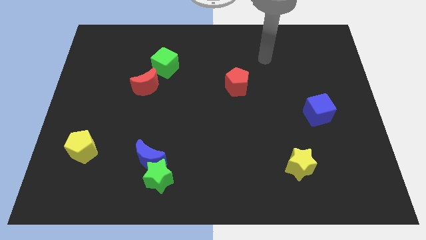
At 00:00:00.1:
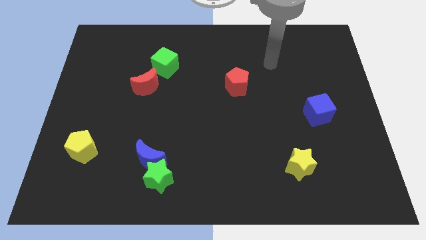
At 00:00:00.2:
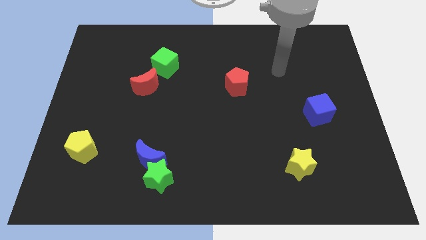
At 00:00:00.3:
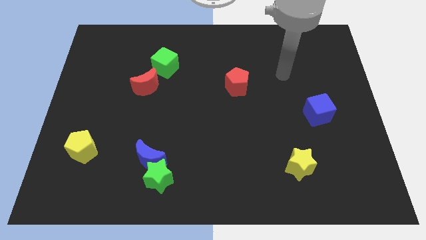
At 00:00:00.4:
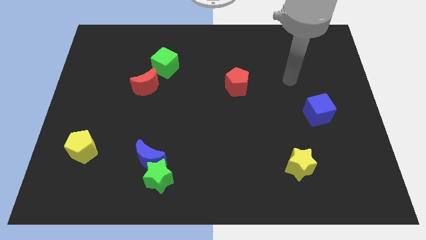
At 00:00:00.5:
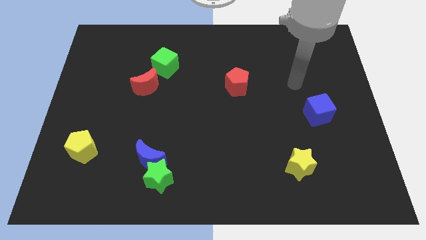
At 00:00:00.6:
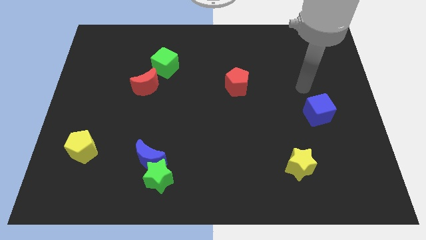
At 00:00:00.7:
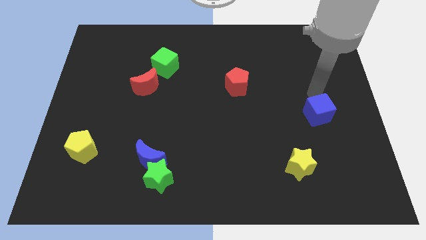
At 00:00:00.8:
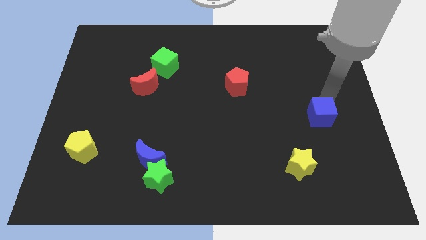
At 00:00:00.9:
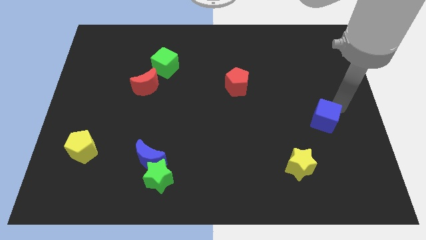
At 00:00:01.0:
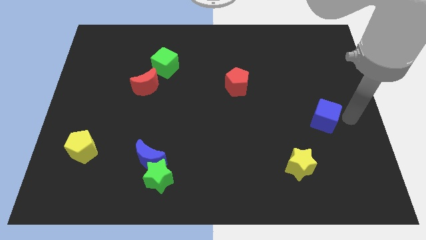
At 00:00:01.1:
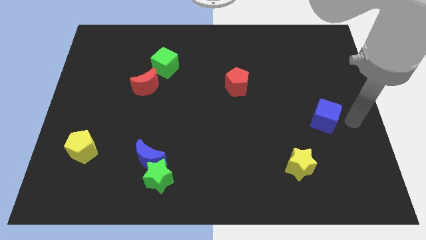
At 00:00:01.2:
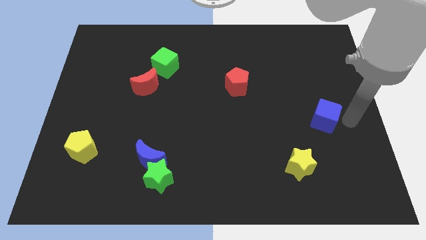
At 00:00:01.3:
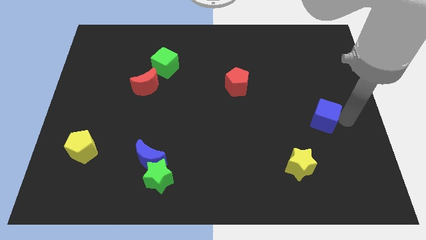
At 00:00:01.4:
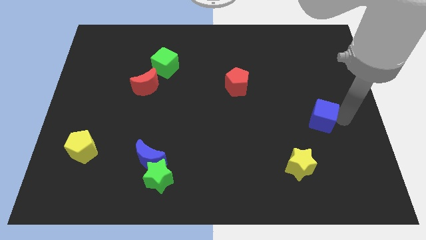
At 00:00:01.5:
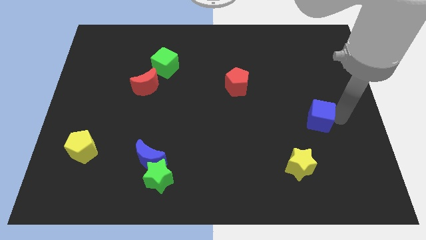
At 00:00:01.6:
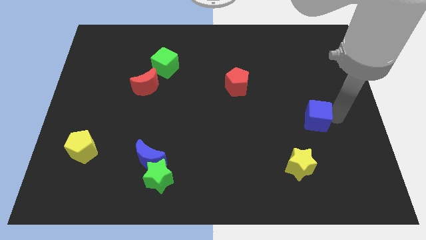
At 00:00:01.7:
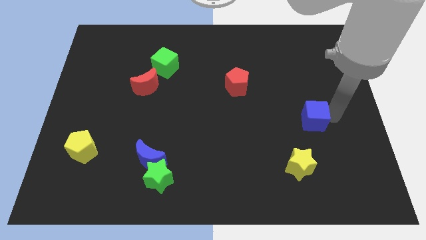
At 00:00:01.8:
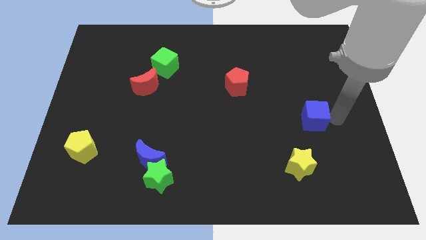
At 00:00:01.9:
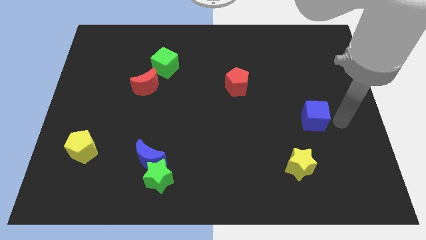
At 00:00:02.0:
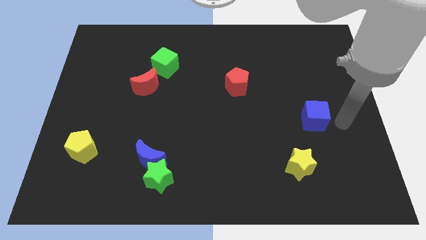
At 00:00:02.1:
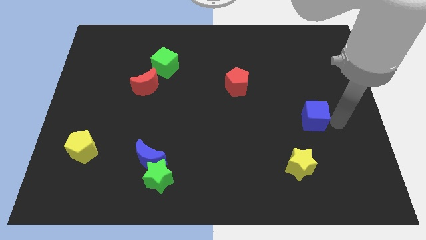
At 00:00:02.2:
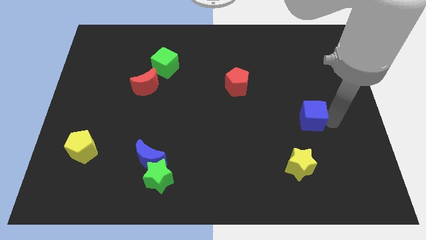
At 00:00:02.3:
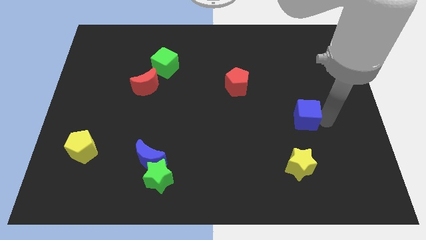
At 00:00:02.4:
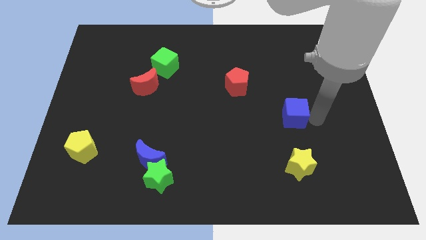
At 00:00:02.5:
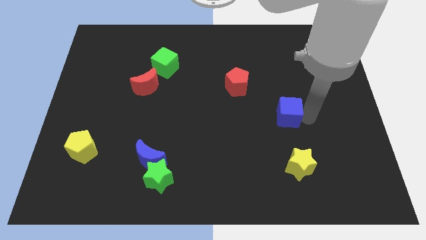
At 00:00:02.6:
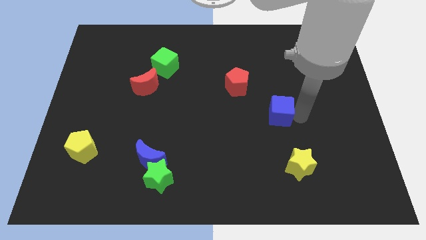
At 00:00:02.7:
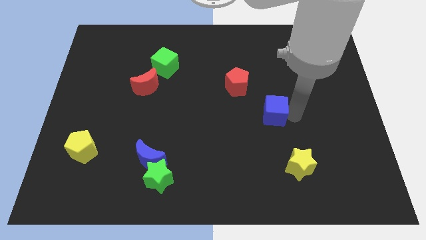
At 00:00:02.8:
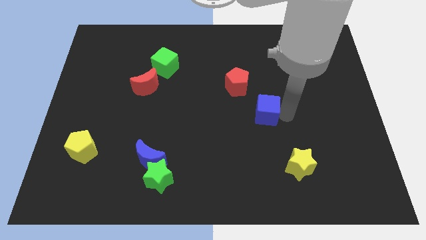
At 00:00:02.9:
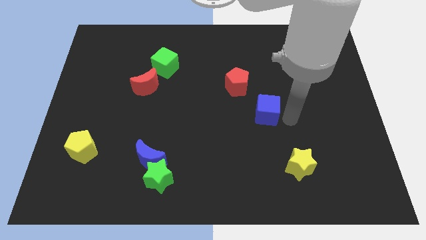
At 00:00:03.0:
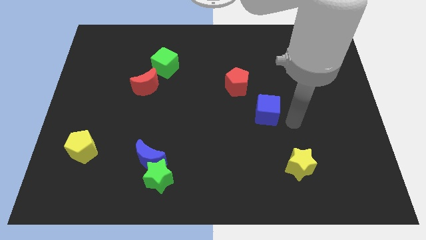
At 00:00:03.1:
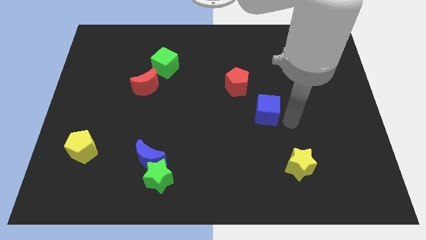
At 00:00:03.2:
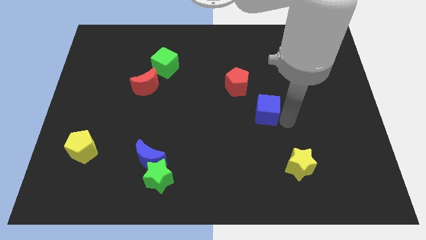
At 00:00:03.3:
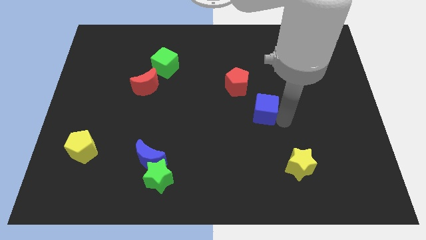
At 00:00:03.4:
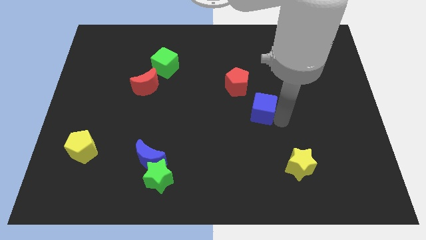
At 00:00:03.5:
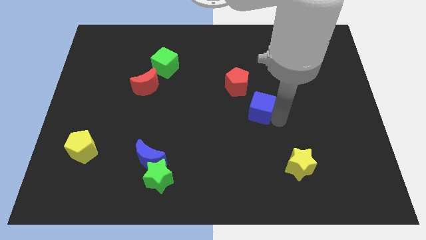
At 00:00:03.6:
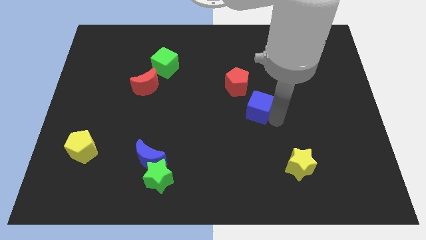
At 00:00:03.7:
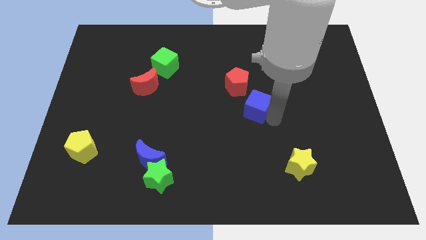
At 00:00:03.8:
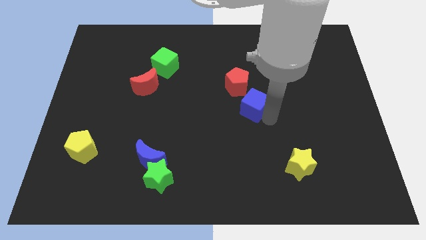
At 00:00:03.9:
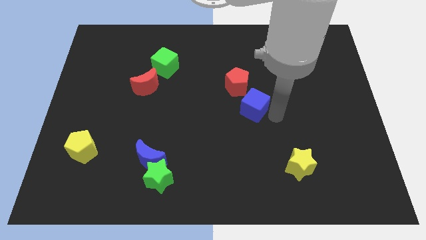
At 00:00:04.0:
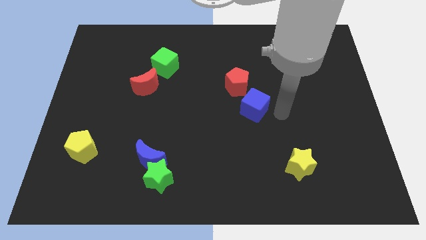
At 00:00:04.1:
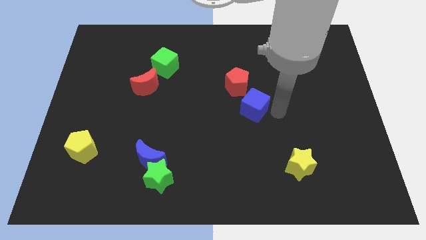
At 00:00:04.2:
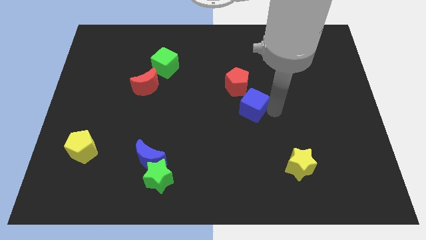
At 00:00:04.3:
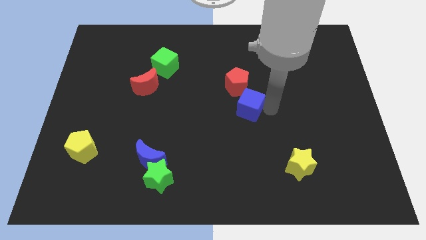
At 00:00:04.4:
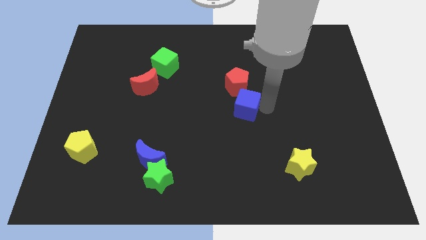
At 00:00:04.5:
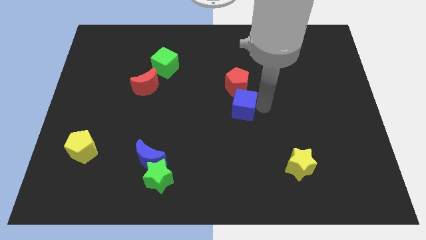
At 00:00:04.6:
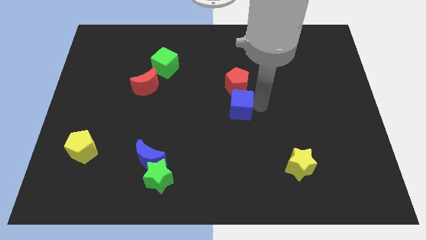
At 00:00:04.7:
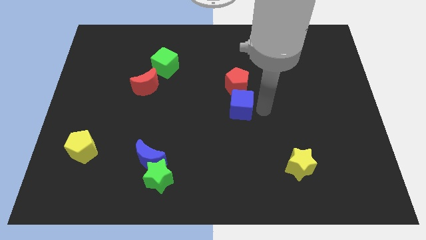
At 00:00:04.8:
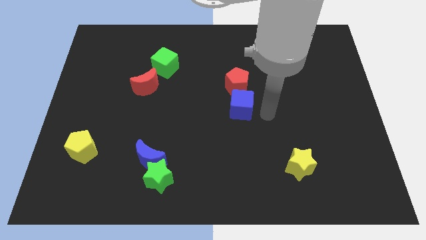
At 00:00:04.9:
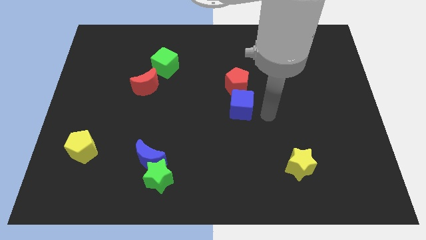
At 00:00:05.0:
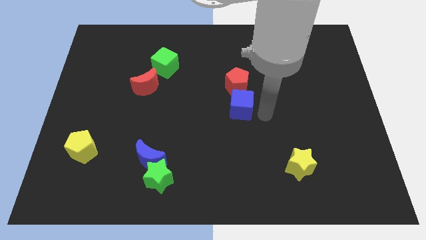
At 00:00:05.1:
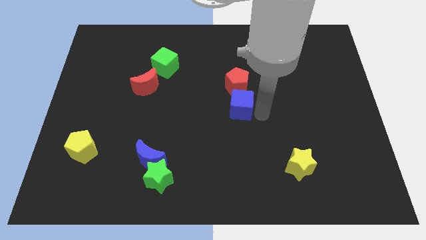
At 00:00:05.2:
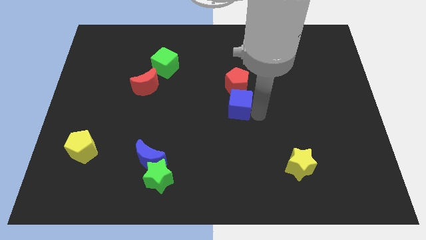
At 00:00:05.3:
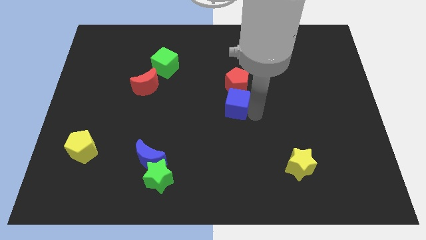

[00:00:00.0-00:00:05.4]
put the blue cube to the bottom left of the red pentagon

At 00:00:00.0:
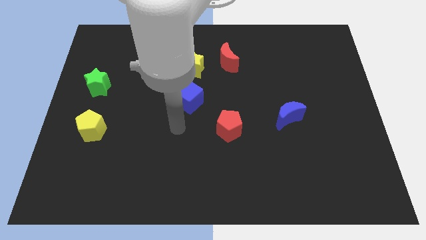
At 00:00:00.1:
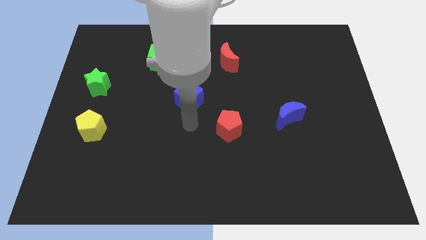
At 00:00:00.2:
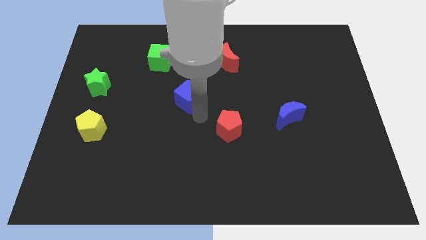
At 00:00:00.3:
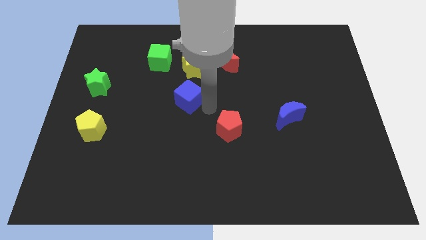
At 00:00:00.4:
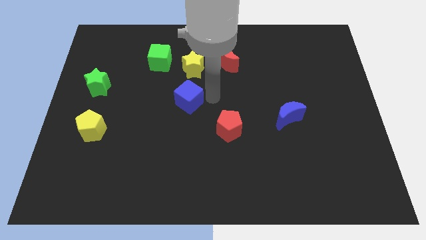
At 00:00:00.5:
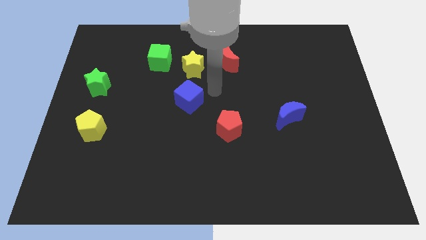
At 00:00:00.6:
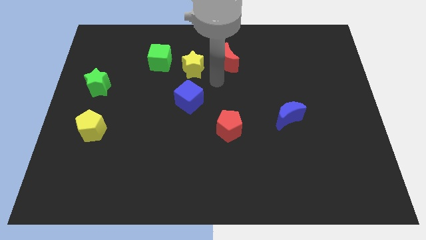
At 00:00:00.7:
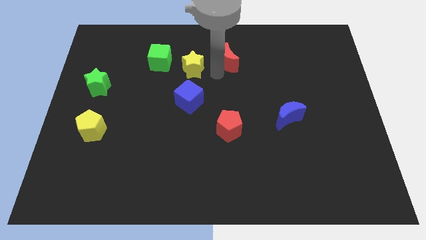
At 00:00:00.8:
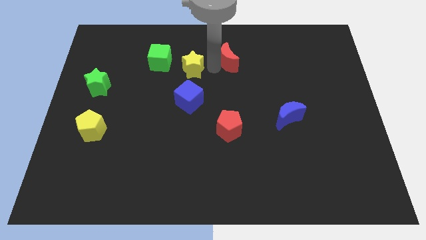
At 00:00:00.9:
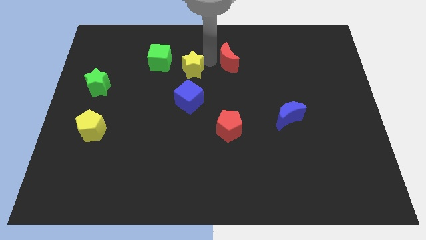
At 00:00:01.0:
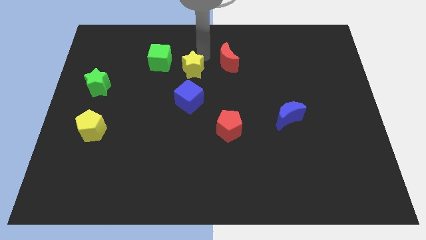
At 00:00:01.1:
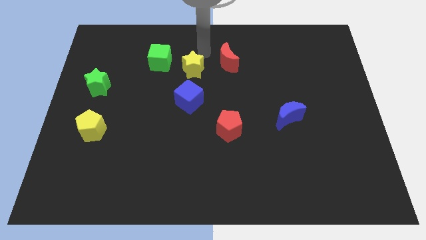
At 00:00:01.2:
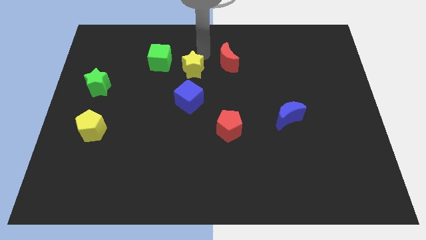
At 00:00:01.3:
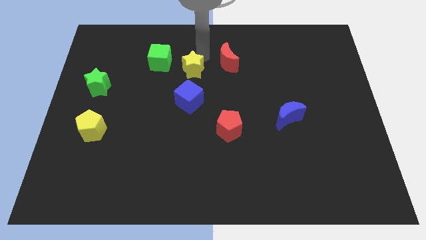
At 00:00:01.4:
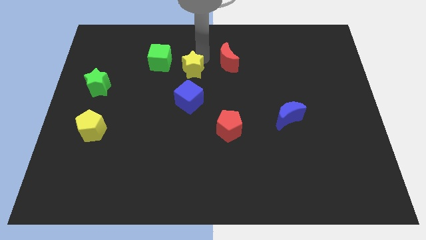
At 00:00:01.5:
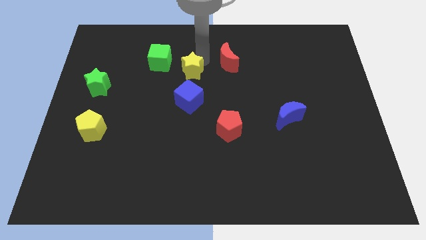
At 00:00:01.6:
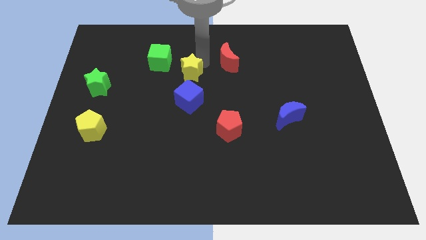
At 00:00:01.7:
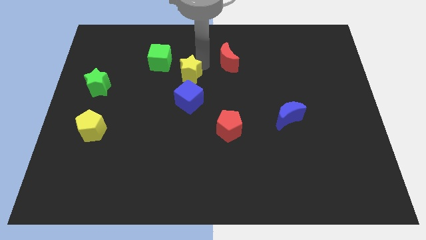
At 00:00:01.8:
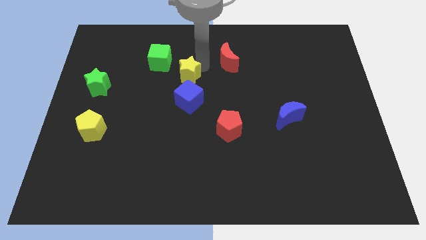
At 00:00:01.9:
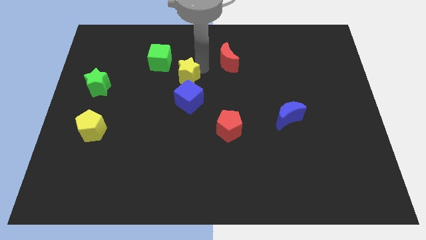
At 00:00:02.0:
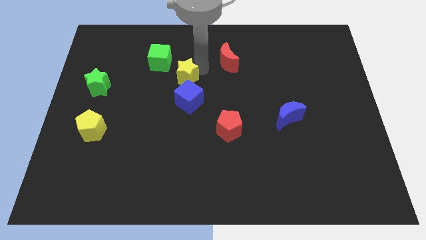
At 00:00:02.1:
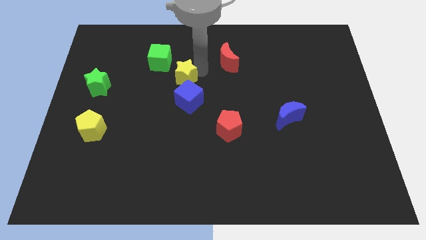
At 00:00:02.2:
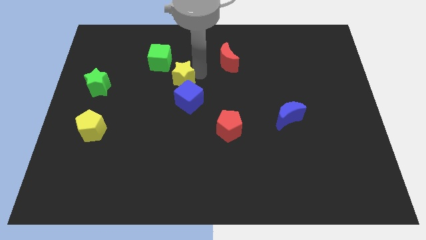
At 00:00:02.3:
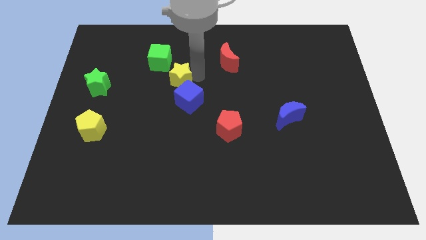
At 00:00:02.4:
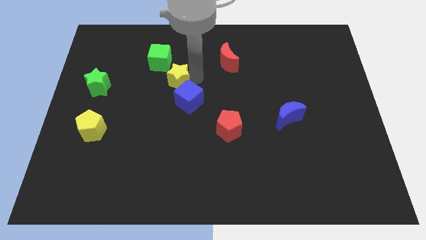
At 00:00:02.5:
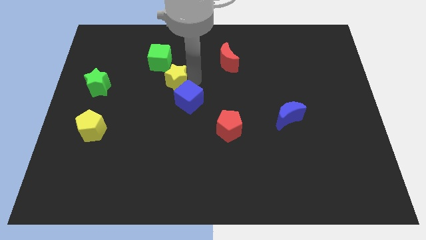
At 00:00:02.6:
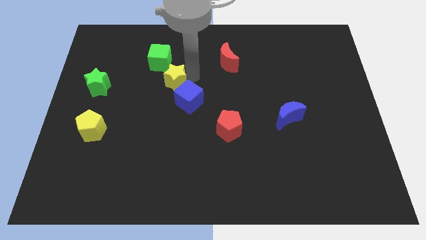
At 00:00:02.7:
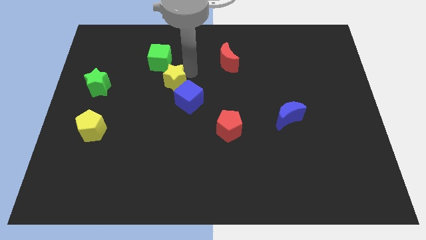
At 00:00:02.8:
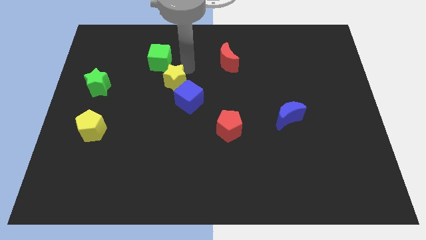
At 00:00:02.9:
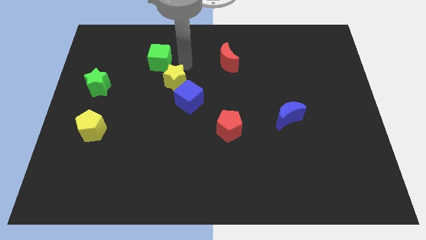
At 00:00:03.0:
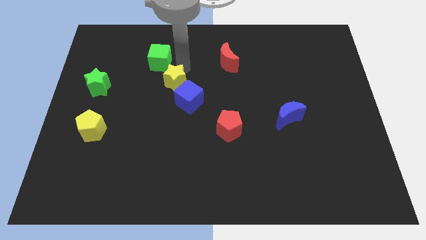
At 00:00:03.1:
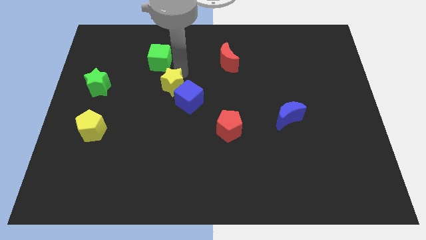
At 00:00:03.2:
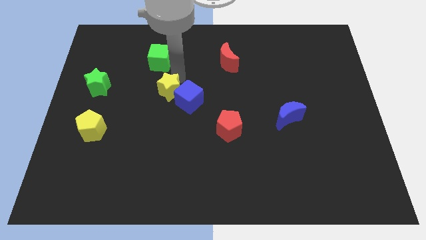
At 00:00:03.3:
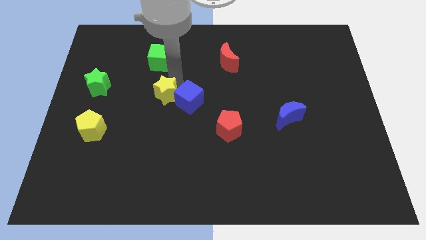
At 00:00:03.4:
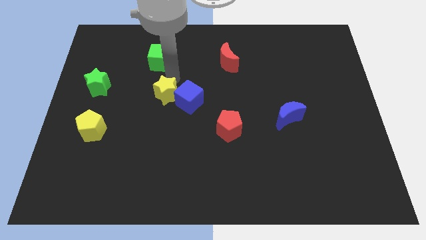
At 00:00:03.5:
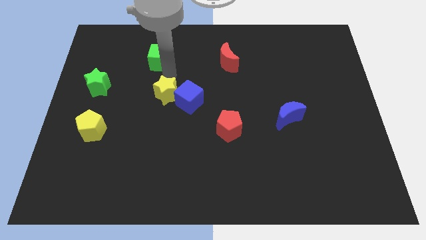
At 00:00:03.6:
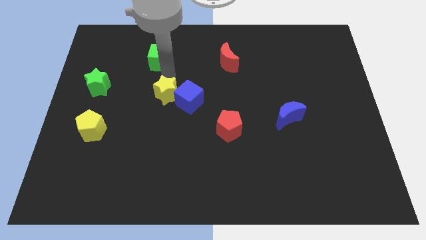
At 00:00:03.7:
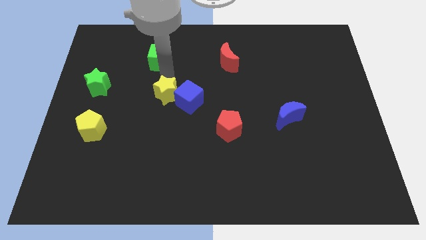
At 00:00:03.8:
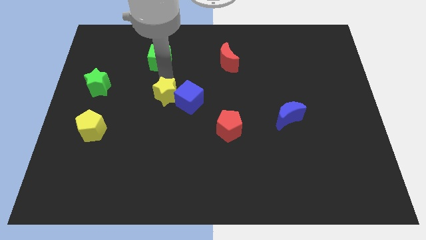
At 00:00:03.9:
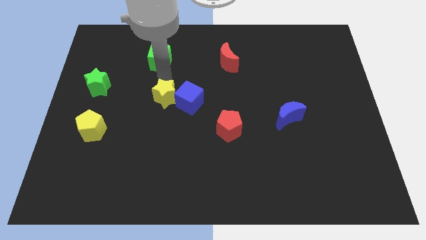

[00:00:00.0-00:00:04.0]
put the yellow star to the bottom left side of the blue cube
